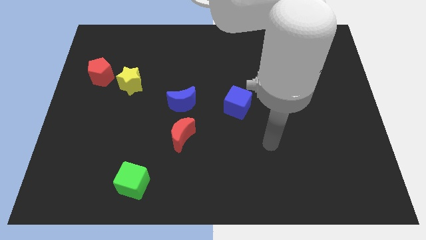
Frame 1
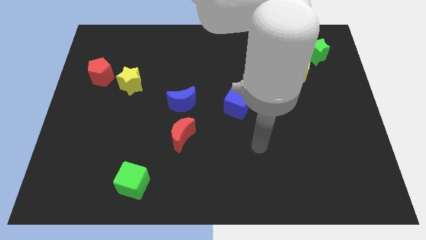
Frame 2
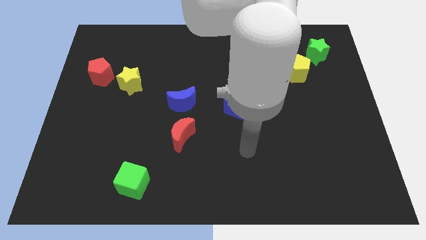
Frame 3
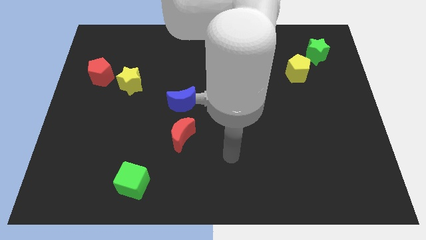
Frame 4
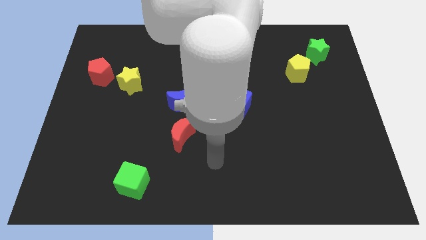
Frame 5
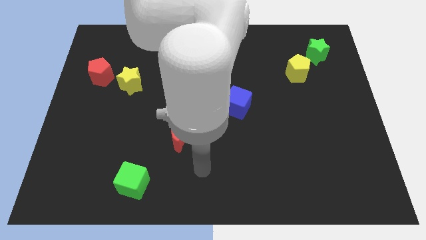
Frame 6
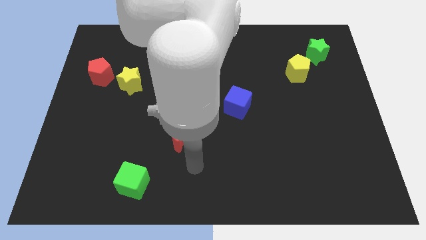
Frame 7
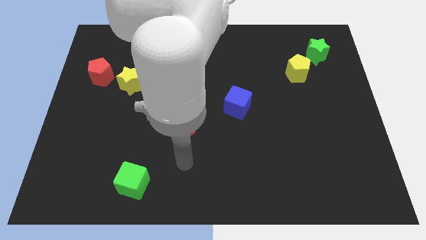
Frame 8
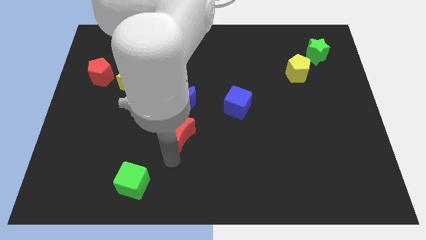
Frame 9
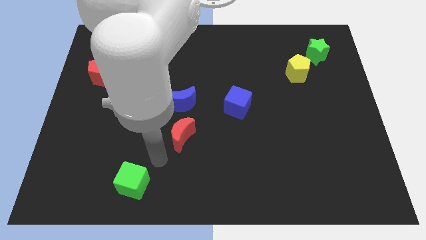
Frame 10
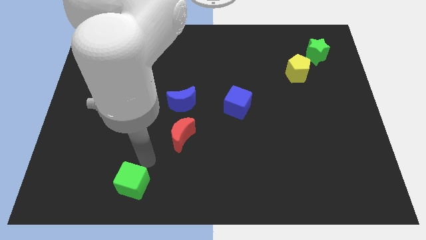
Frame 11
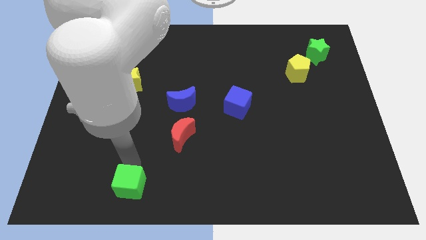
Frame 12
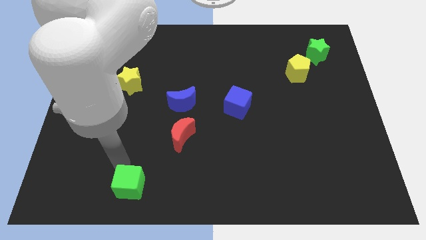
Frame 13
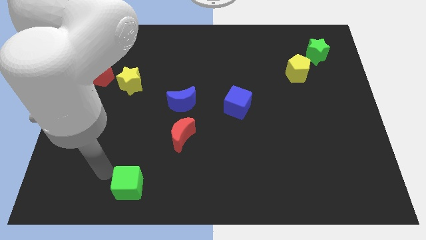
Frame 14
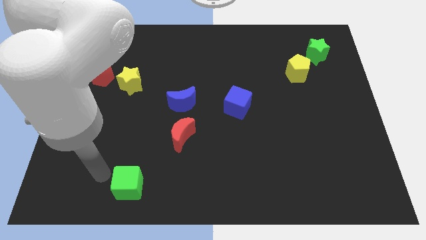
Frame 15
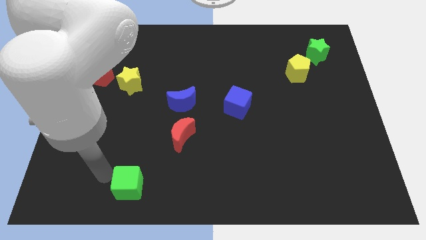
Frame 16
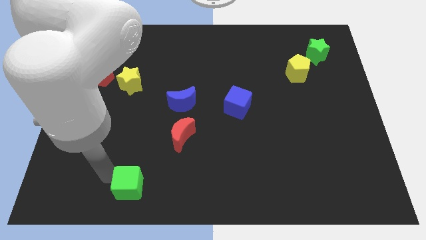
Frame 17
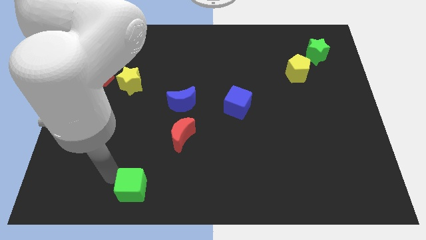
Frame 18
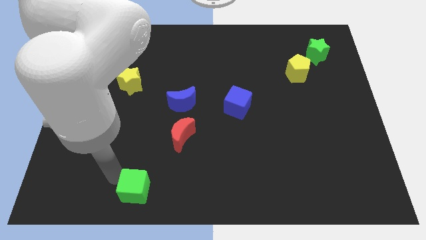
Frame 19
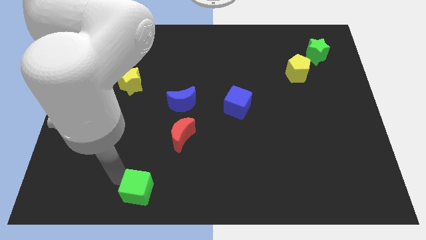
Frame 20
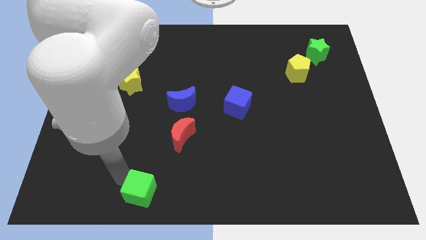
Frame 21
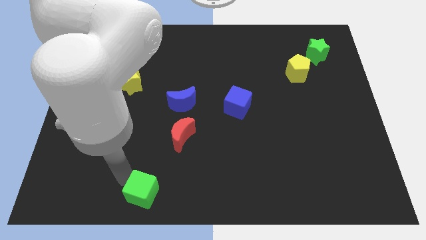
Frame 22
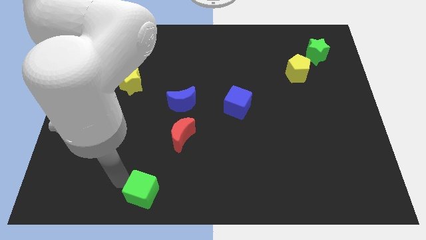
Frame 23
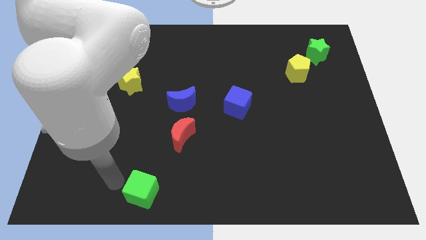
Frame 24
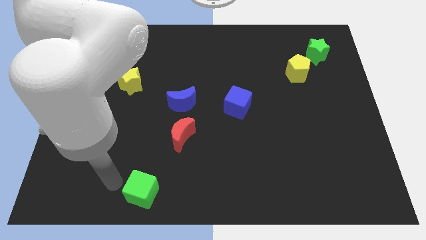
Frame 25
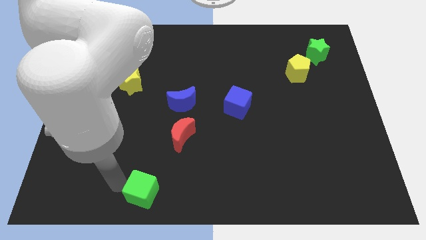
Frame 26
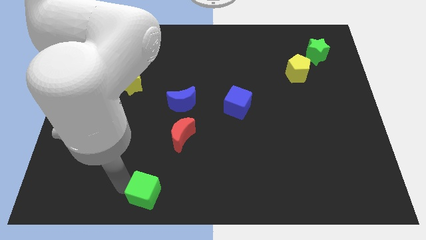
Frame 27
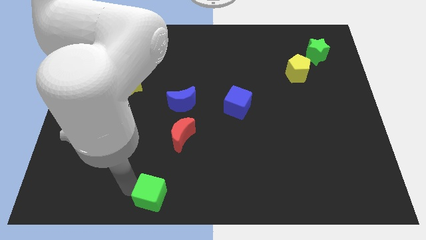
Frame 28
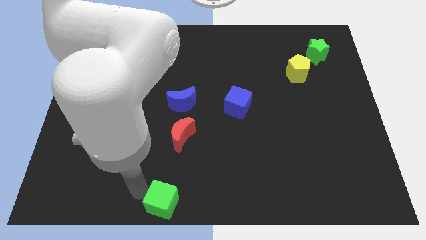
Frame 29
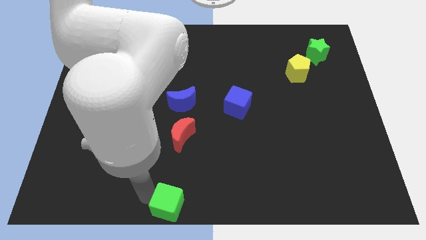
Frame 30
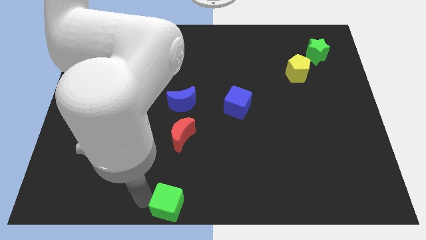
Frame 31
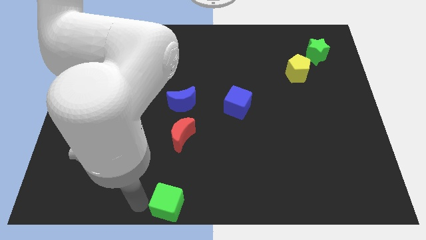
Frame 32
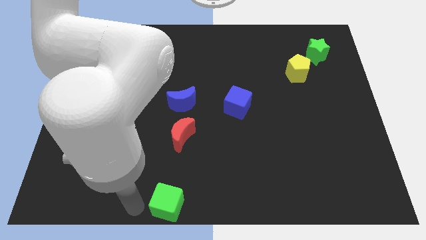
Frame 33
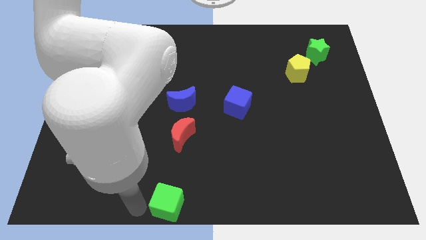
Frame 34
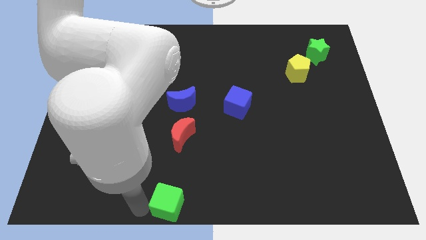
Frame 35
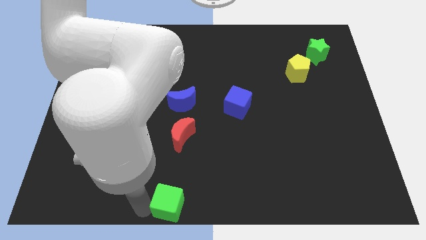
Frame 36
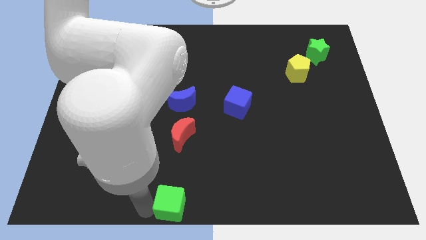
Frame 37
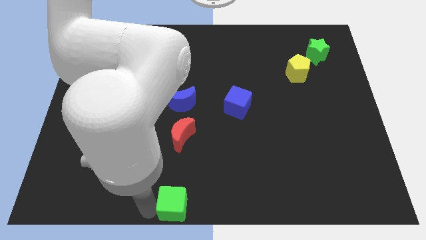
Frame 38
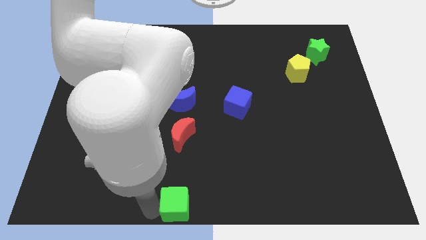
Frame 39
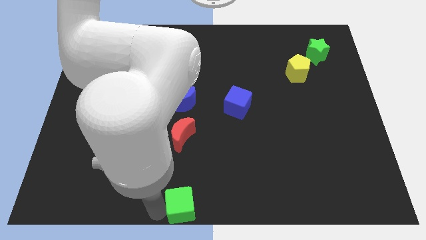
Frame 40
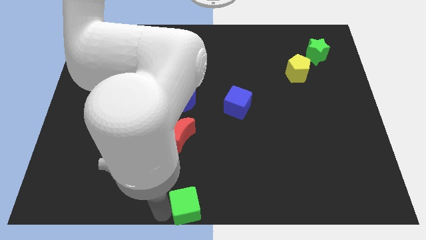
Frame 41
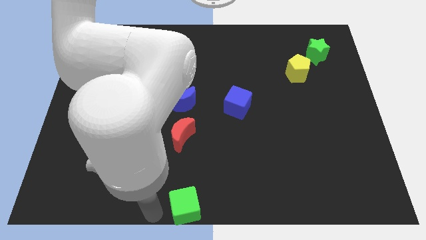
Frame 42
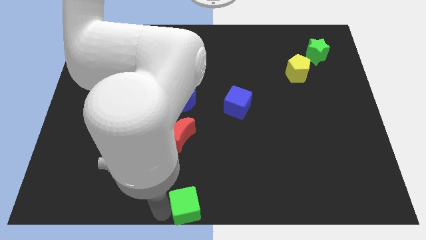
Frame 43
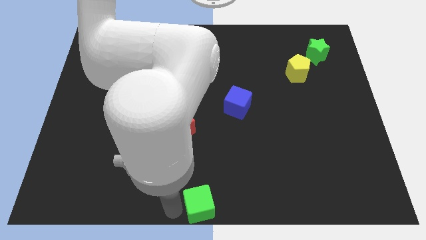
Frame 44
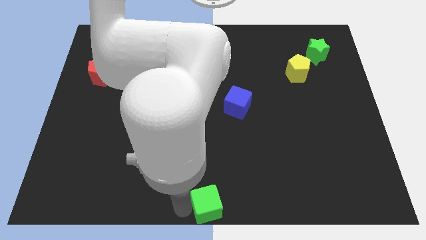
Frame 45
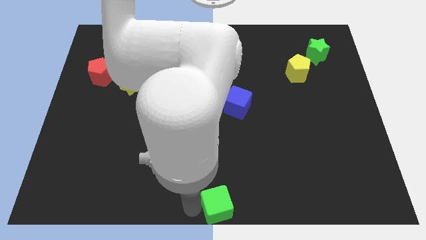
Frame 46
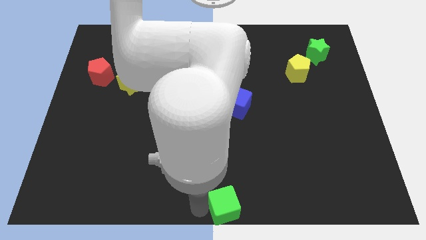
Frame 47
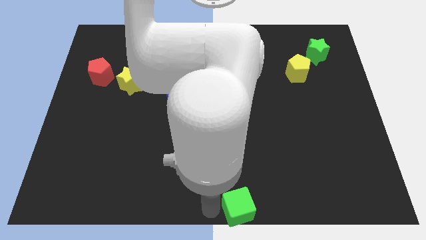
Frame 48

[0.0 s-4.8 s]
push the green cube to the right

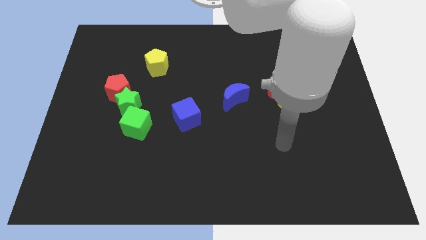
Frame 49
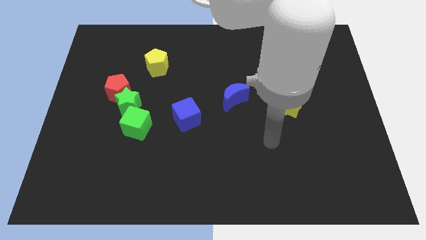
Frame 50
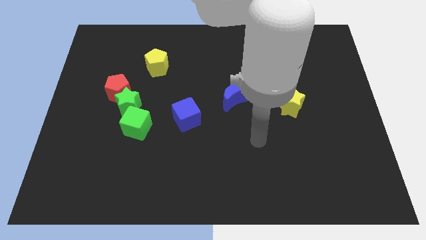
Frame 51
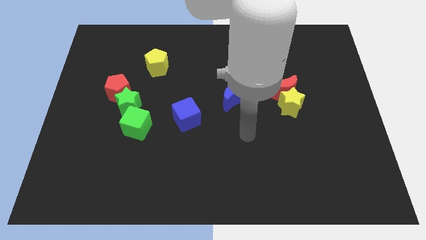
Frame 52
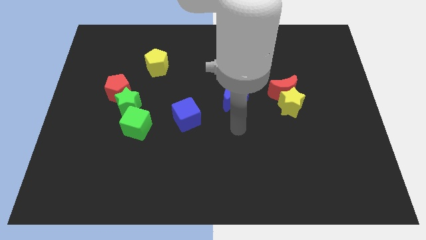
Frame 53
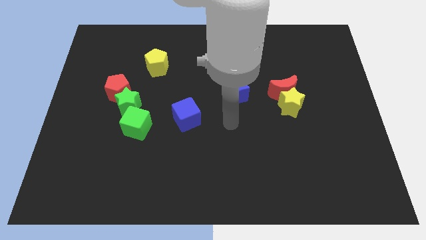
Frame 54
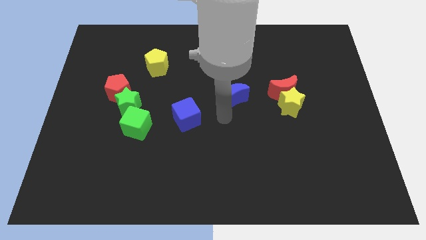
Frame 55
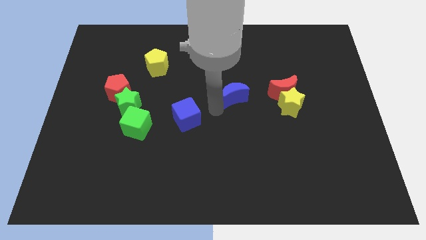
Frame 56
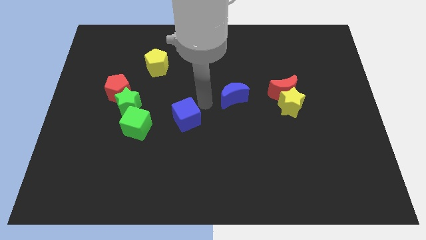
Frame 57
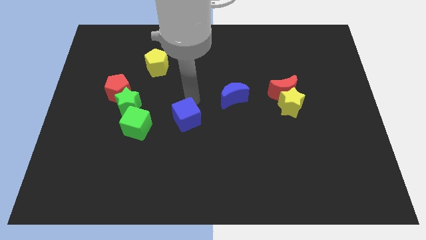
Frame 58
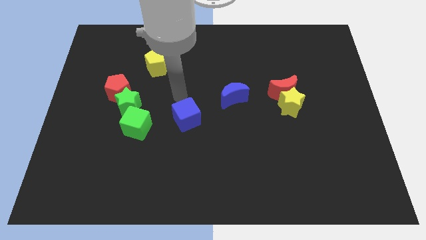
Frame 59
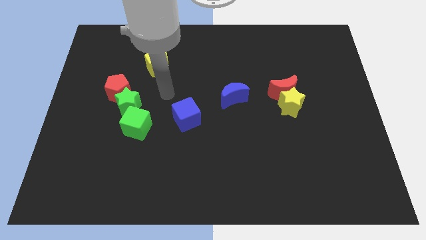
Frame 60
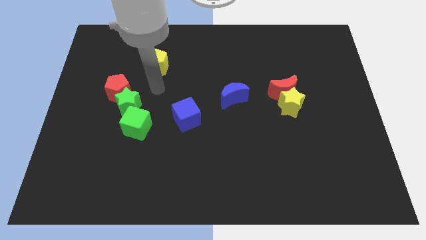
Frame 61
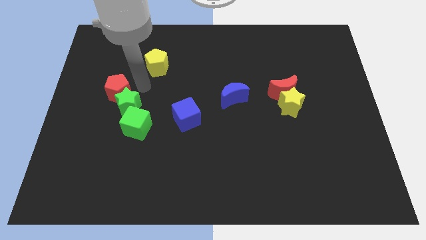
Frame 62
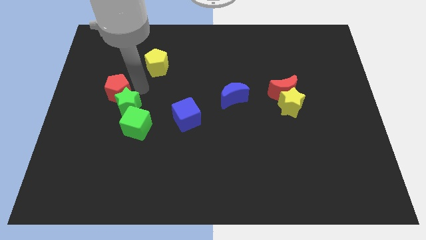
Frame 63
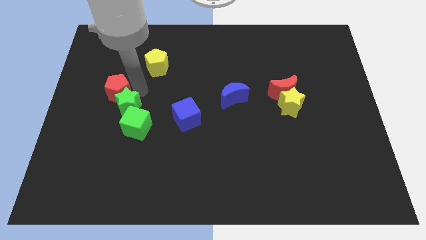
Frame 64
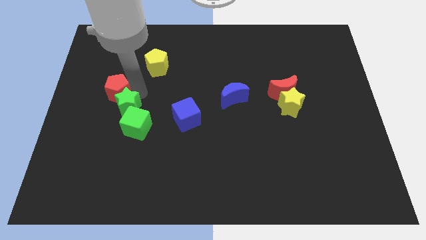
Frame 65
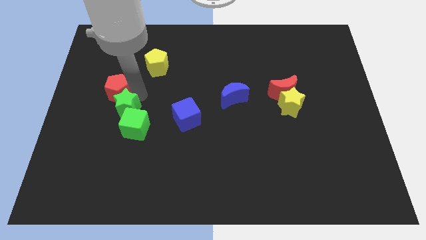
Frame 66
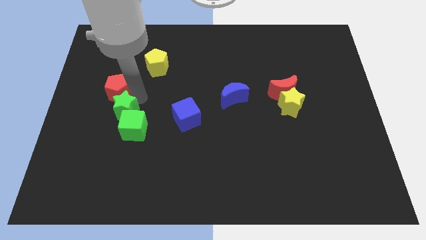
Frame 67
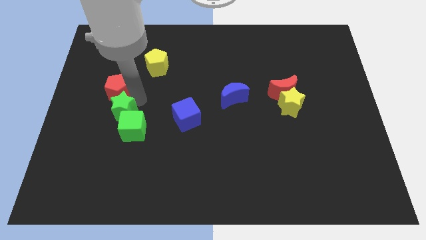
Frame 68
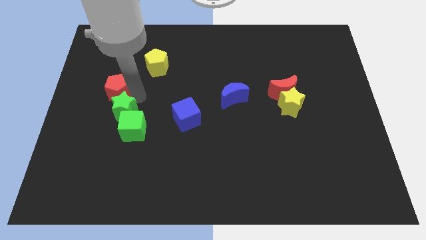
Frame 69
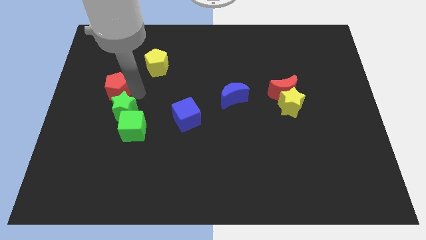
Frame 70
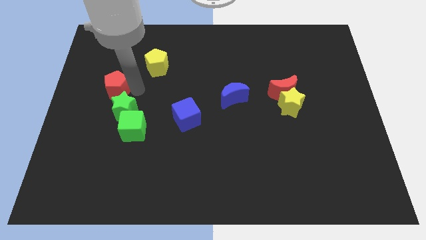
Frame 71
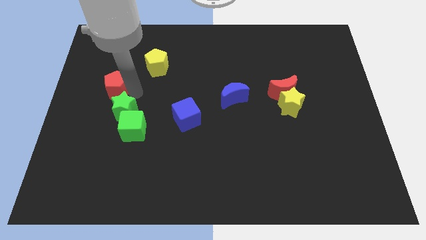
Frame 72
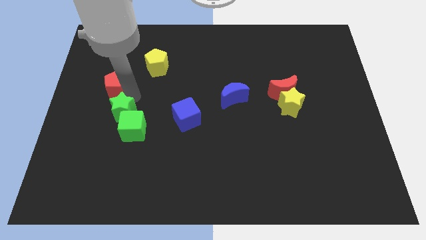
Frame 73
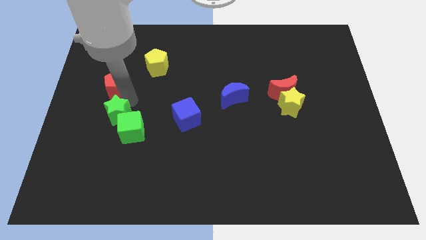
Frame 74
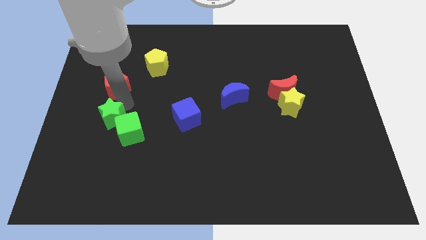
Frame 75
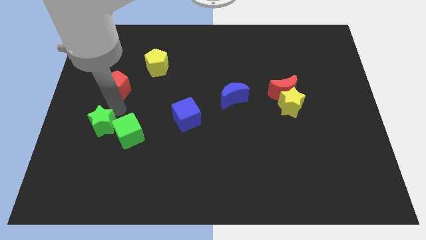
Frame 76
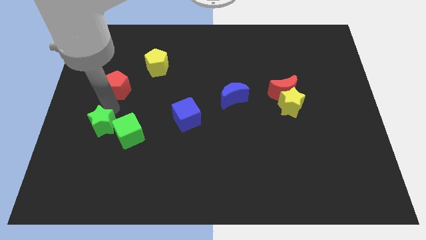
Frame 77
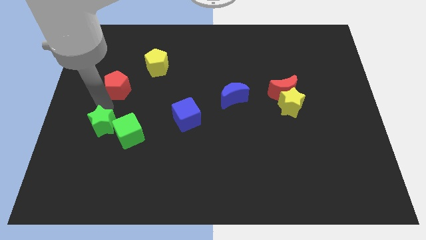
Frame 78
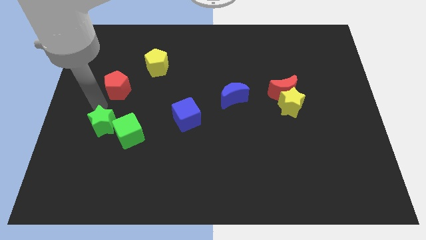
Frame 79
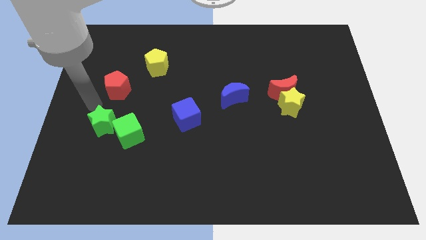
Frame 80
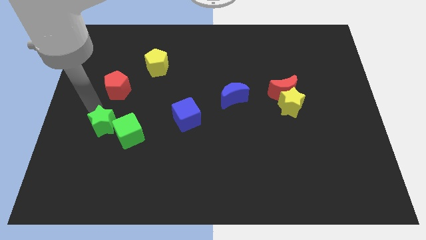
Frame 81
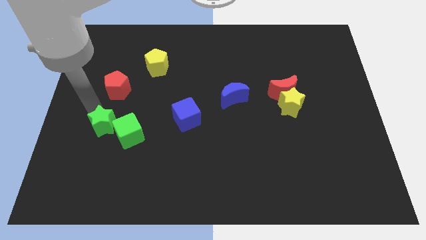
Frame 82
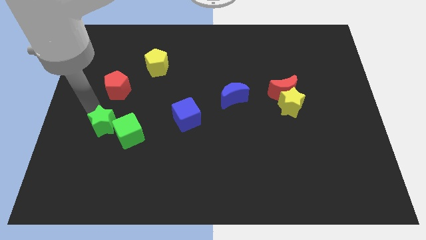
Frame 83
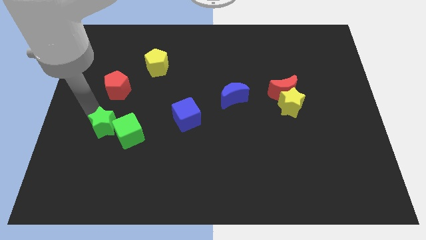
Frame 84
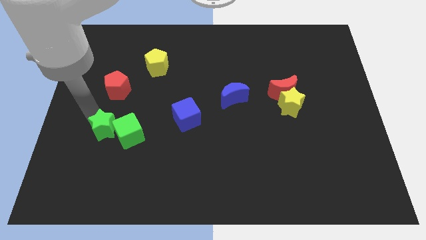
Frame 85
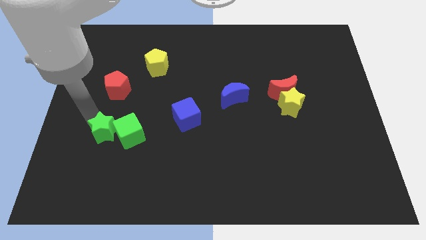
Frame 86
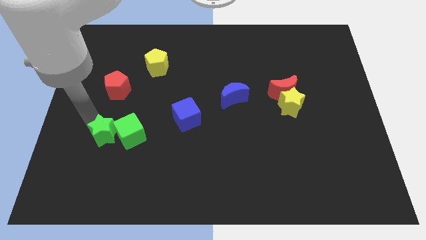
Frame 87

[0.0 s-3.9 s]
move the green star downwards somewhat
